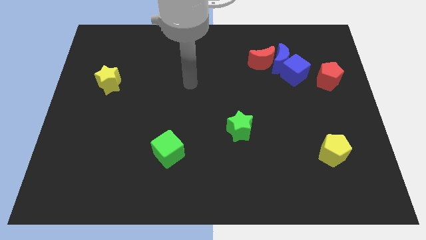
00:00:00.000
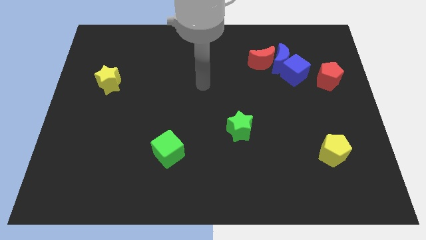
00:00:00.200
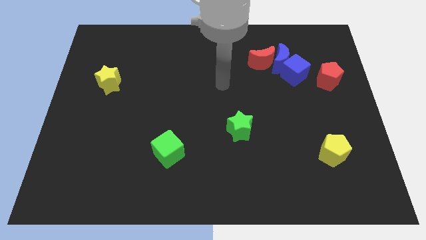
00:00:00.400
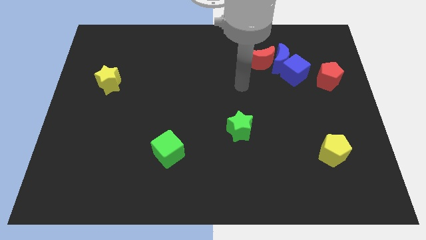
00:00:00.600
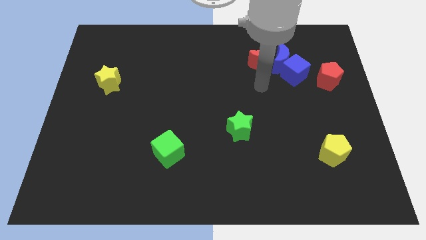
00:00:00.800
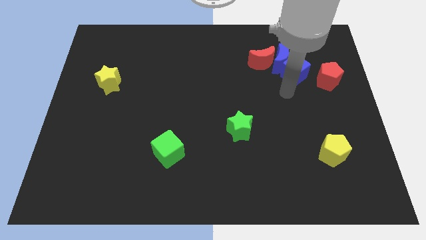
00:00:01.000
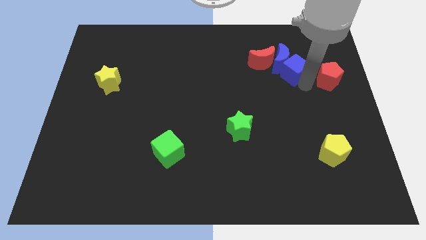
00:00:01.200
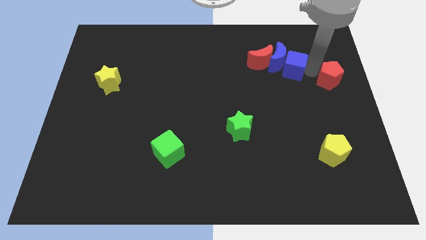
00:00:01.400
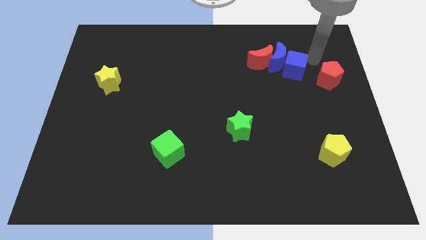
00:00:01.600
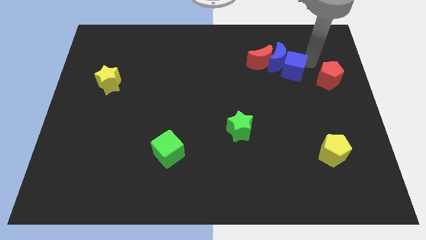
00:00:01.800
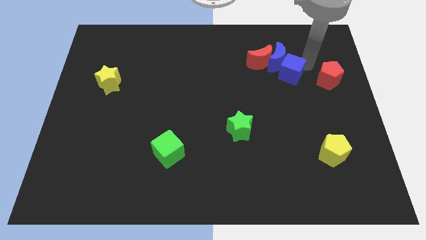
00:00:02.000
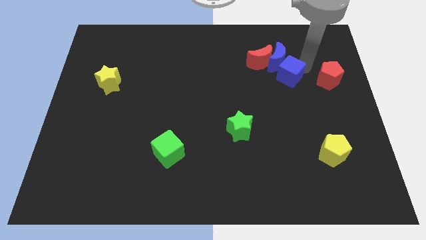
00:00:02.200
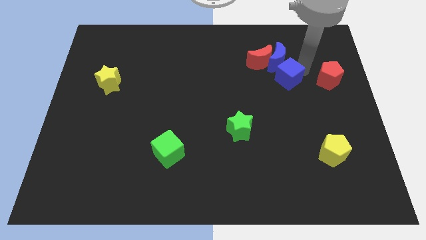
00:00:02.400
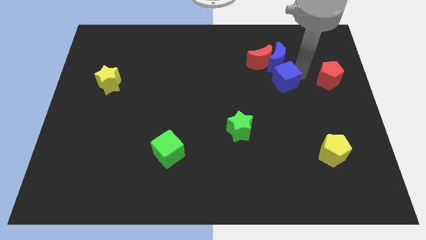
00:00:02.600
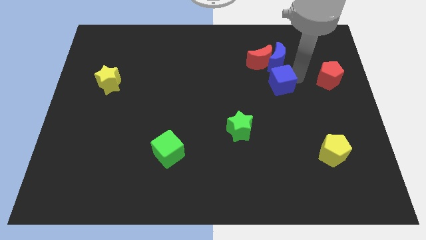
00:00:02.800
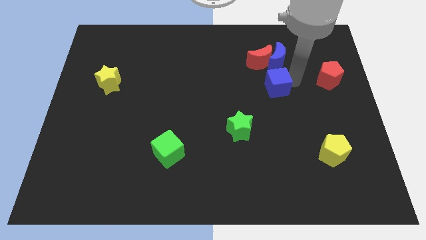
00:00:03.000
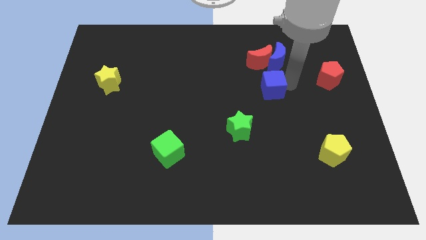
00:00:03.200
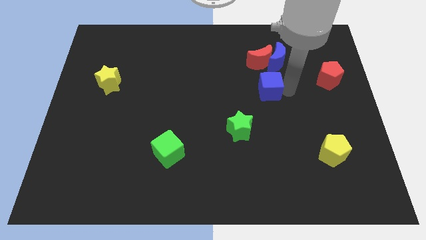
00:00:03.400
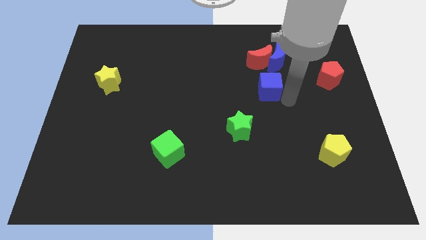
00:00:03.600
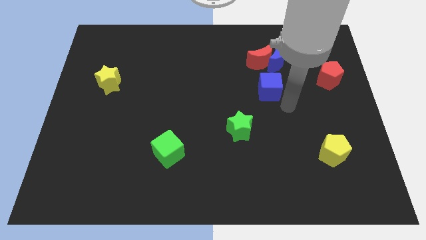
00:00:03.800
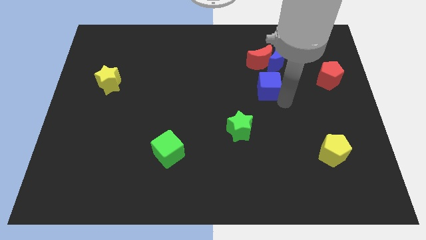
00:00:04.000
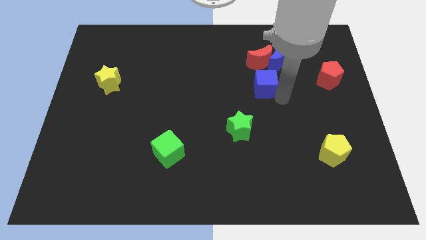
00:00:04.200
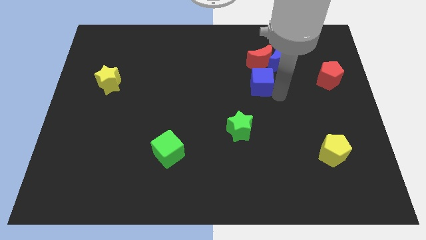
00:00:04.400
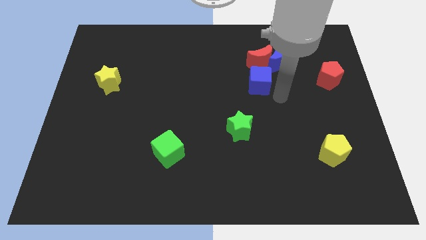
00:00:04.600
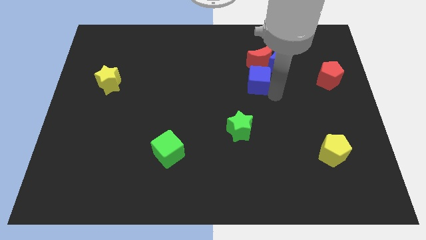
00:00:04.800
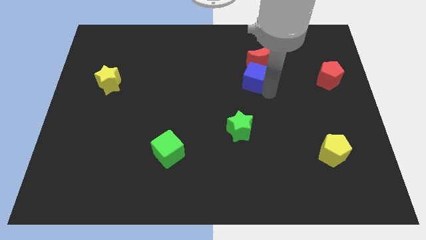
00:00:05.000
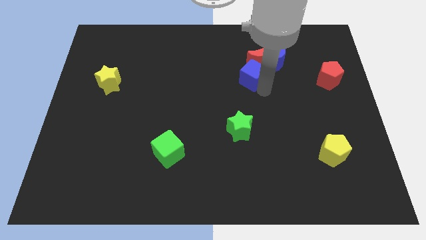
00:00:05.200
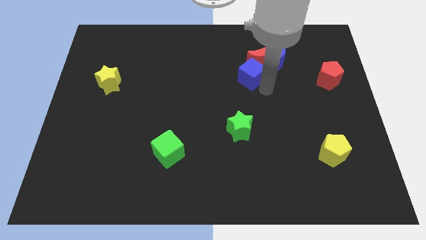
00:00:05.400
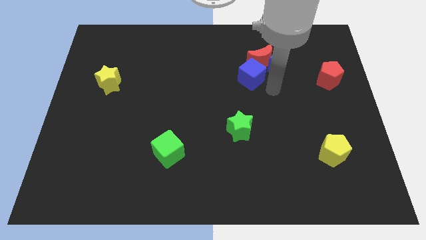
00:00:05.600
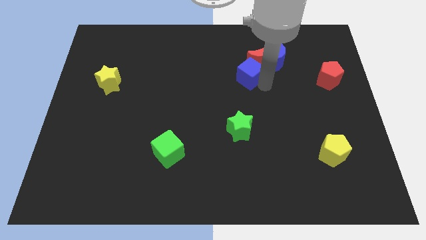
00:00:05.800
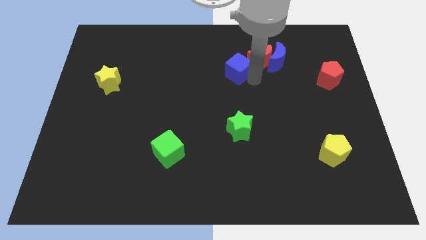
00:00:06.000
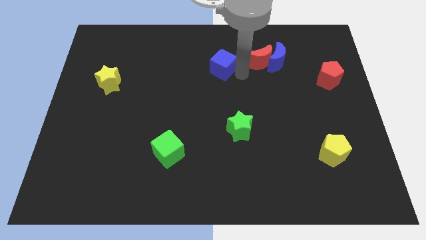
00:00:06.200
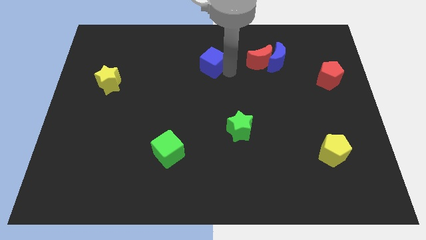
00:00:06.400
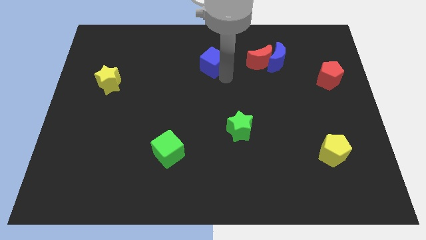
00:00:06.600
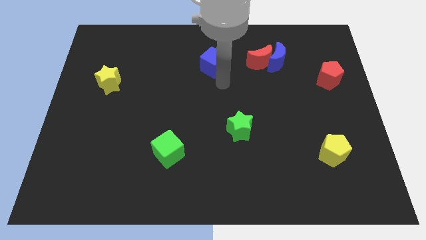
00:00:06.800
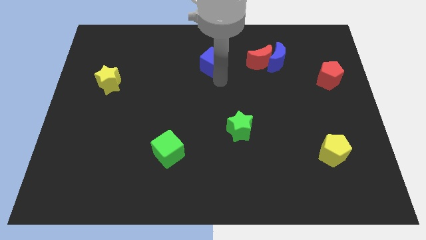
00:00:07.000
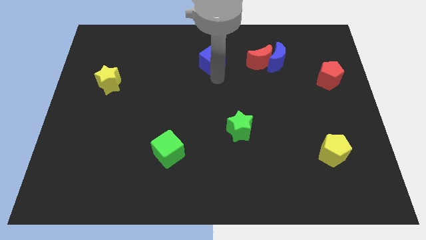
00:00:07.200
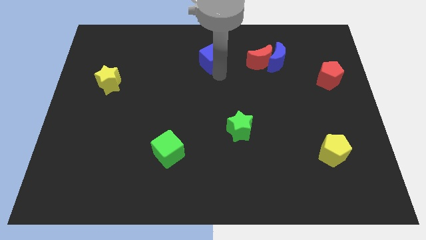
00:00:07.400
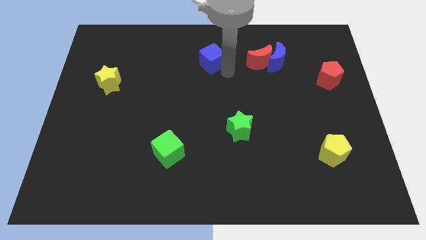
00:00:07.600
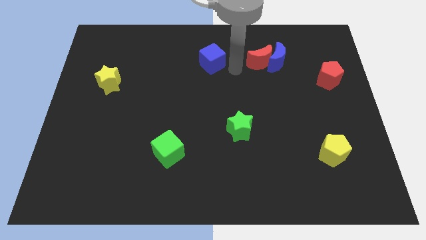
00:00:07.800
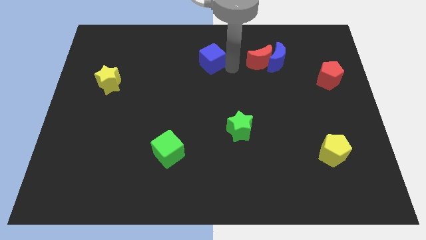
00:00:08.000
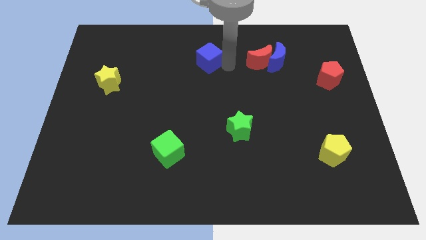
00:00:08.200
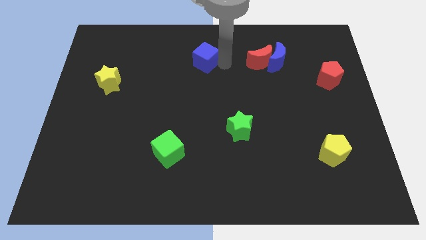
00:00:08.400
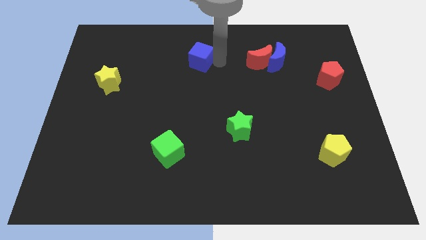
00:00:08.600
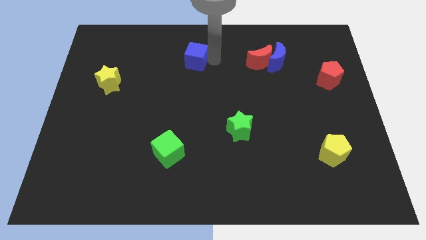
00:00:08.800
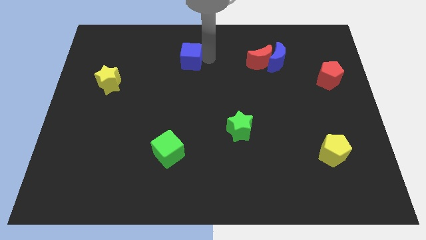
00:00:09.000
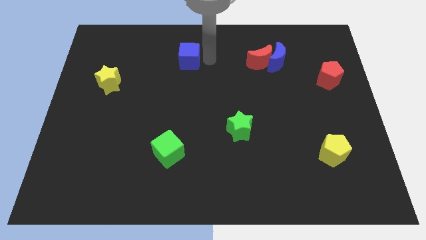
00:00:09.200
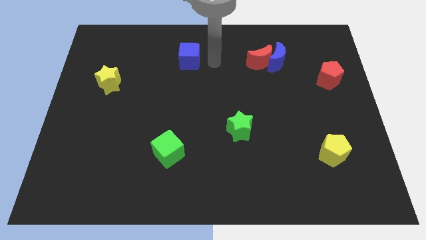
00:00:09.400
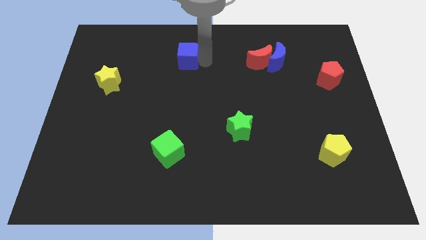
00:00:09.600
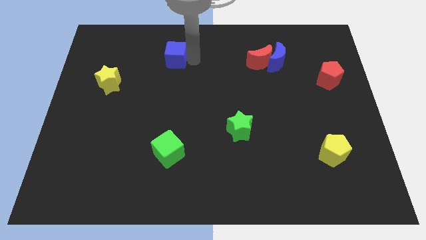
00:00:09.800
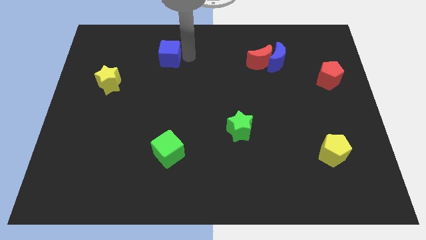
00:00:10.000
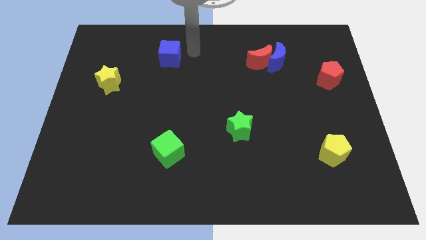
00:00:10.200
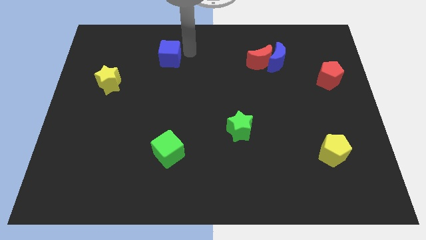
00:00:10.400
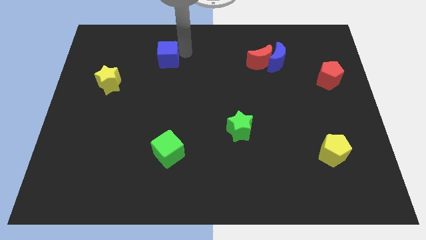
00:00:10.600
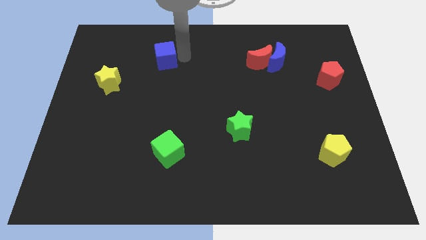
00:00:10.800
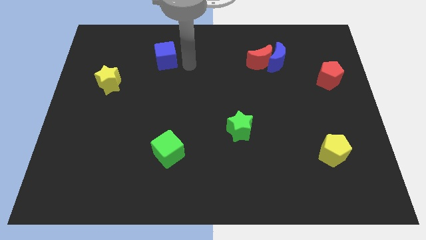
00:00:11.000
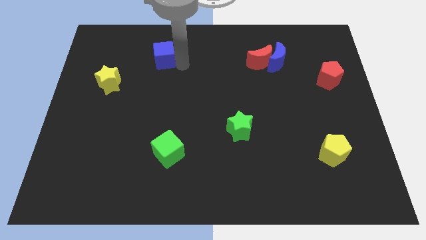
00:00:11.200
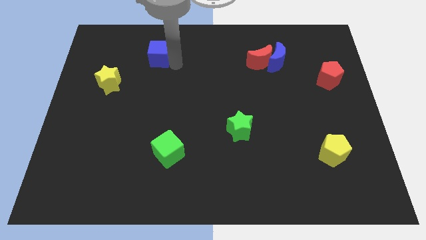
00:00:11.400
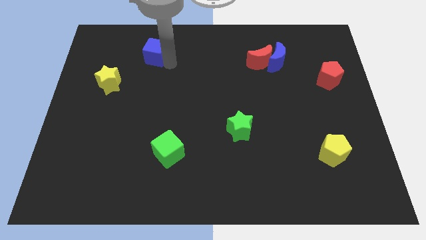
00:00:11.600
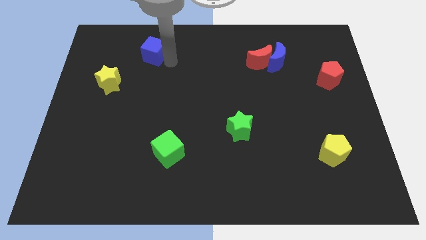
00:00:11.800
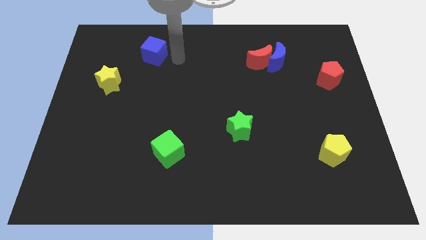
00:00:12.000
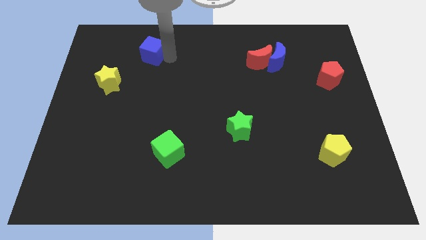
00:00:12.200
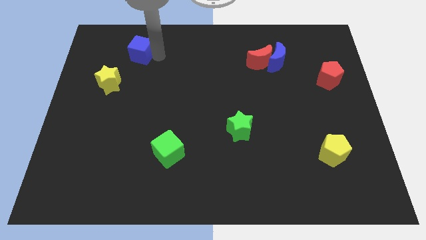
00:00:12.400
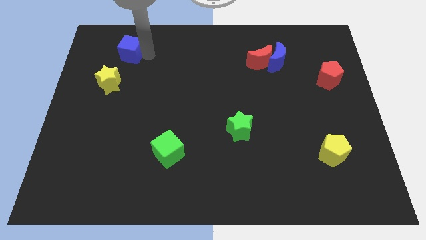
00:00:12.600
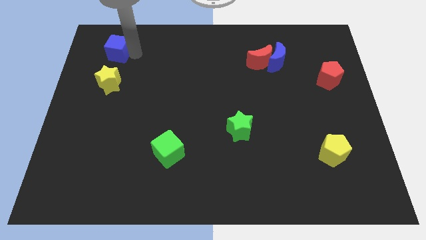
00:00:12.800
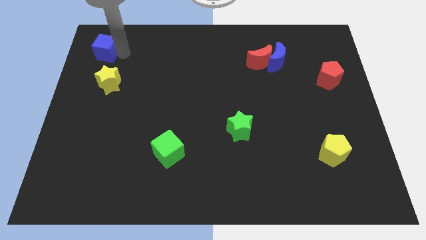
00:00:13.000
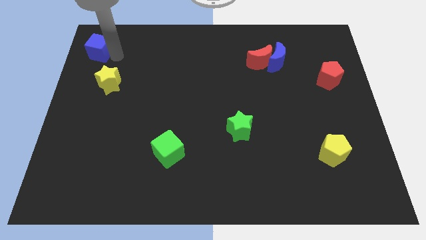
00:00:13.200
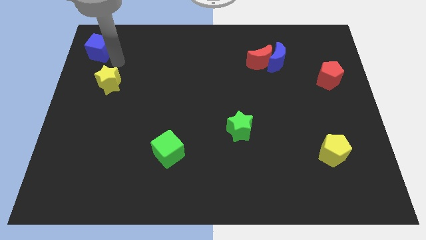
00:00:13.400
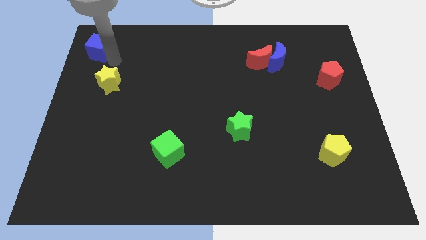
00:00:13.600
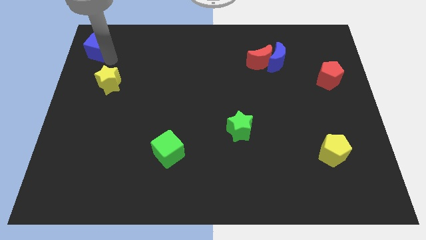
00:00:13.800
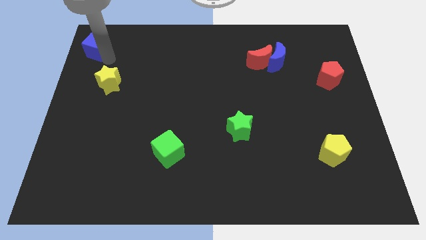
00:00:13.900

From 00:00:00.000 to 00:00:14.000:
slide the blue cube to the top left of the board

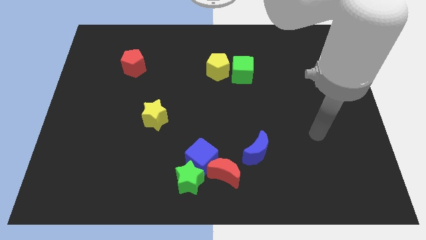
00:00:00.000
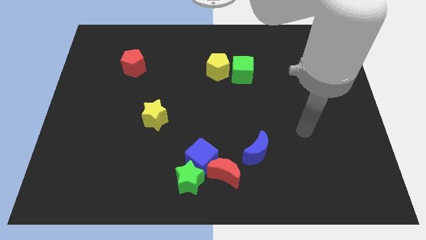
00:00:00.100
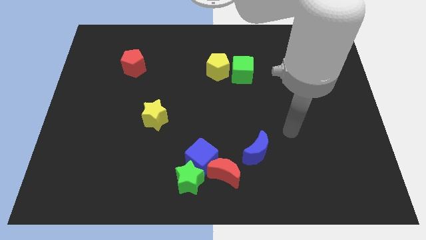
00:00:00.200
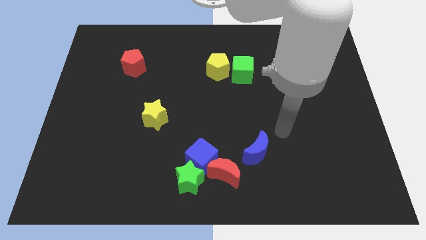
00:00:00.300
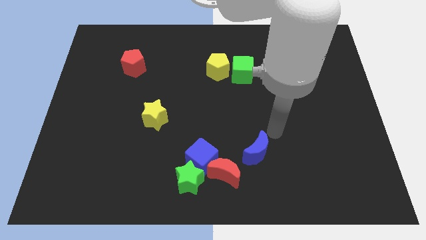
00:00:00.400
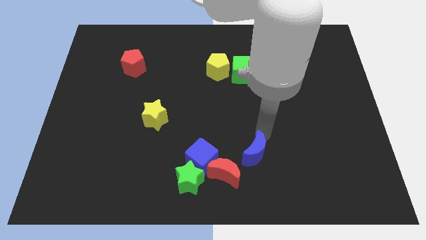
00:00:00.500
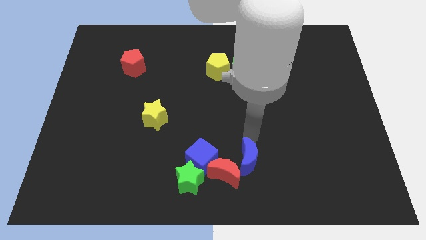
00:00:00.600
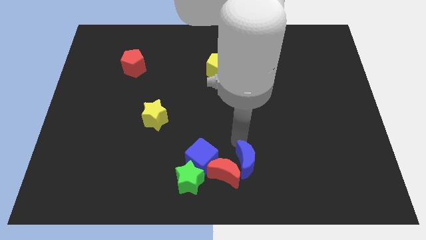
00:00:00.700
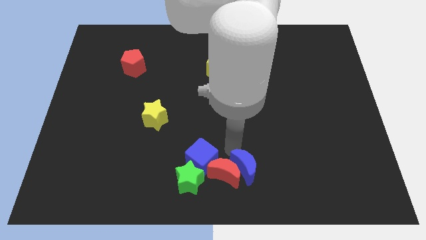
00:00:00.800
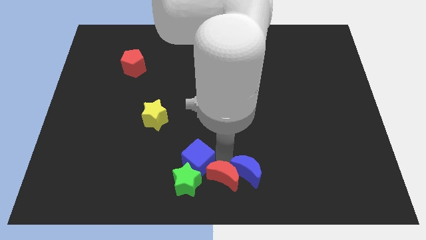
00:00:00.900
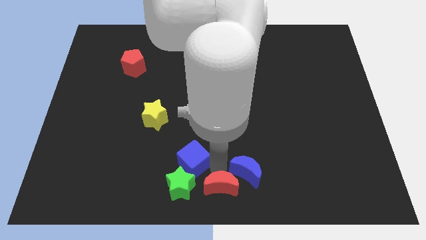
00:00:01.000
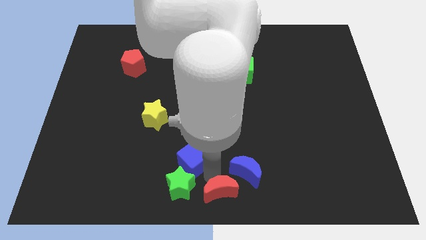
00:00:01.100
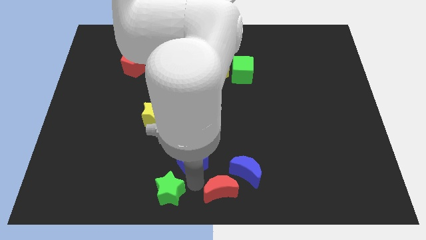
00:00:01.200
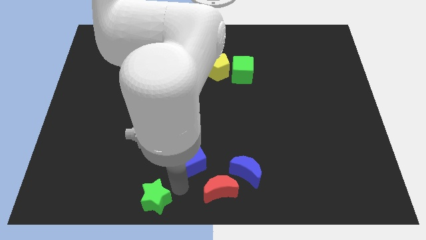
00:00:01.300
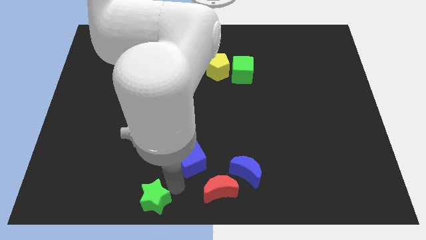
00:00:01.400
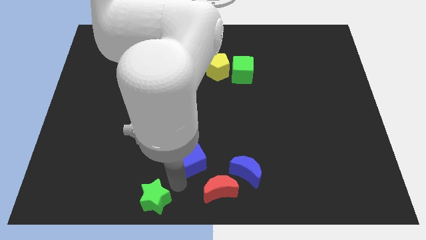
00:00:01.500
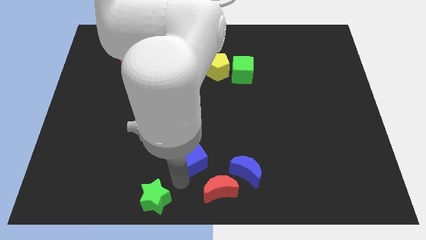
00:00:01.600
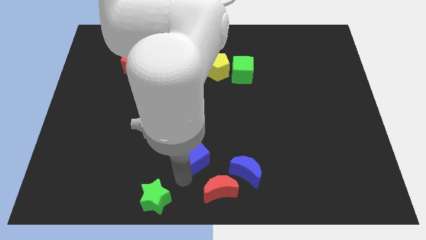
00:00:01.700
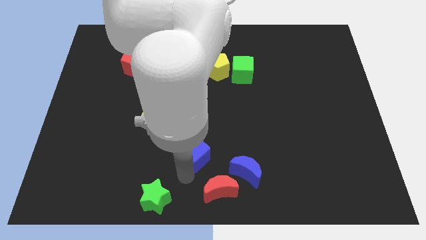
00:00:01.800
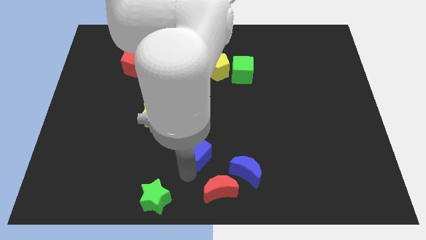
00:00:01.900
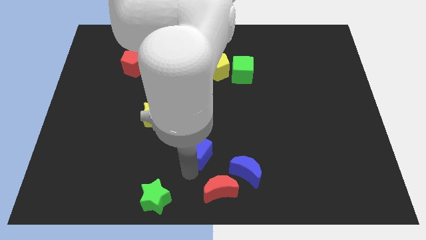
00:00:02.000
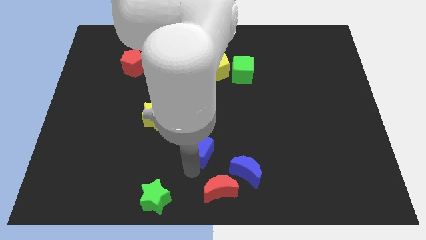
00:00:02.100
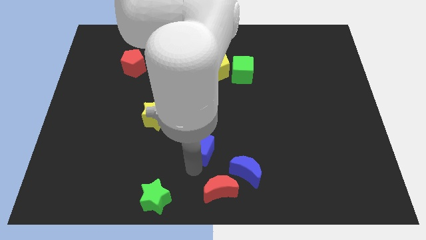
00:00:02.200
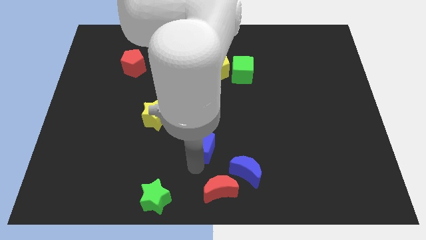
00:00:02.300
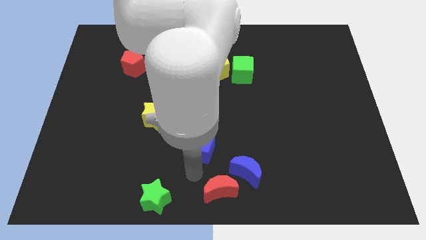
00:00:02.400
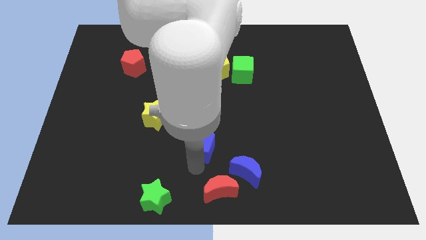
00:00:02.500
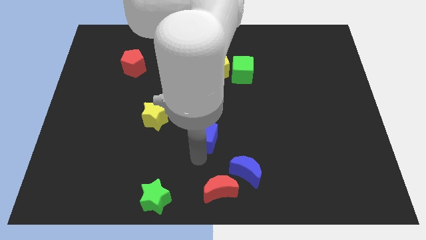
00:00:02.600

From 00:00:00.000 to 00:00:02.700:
put the blue cube to the center
